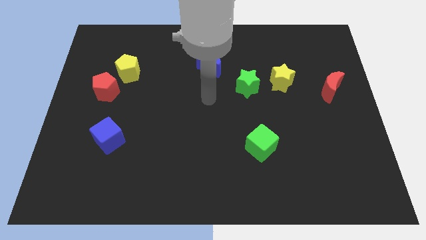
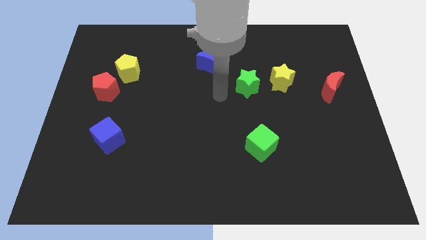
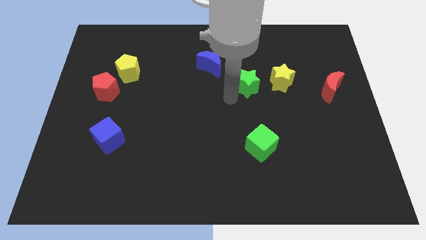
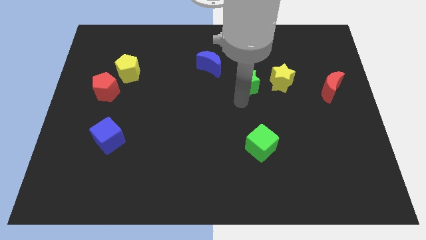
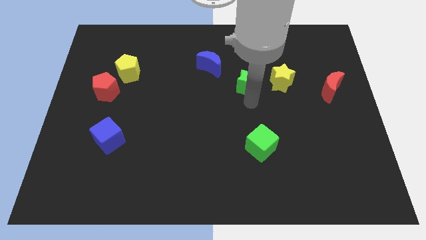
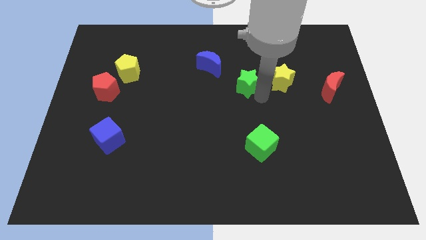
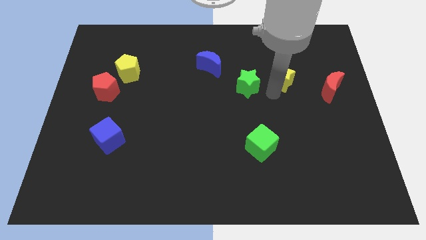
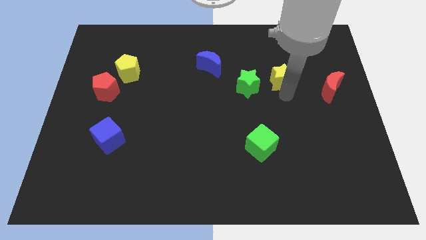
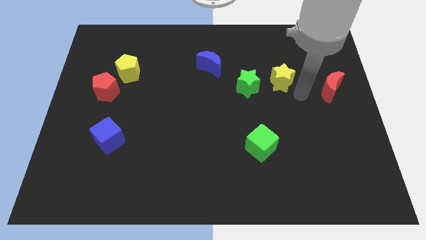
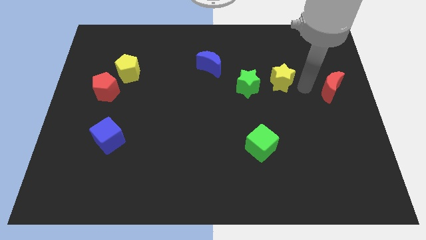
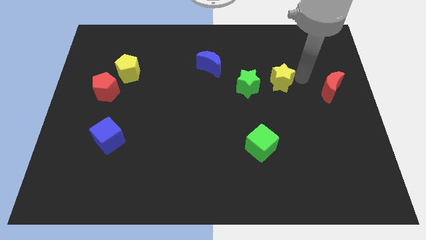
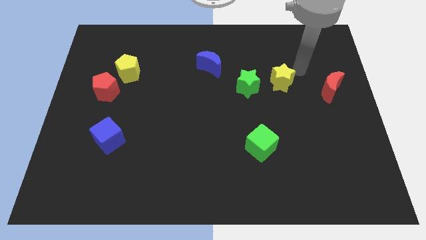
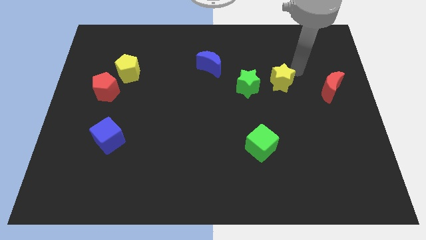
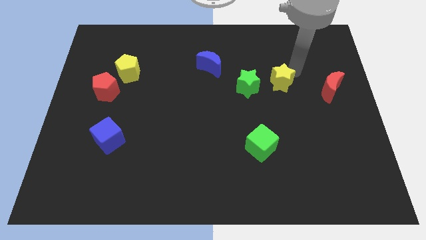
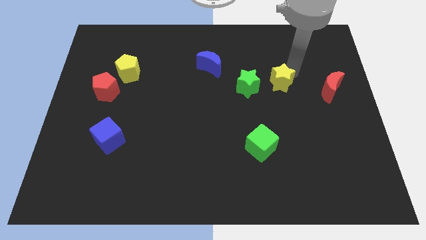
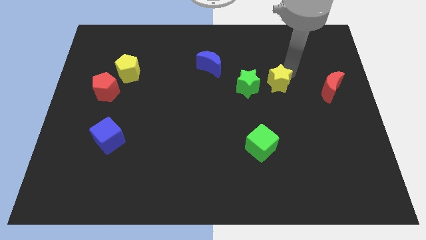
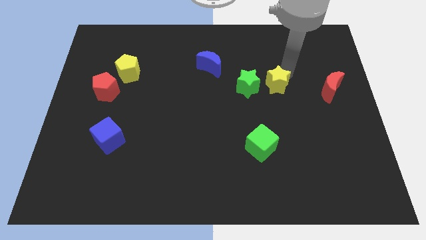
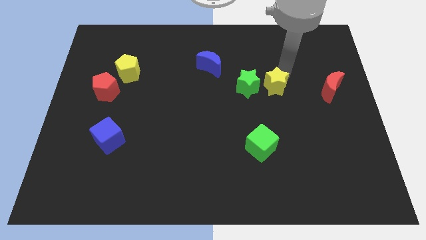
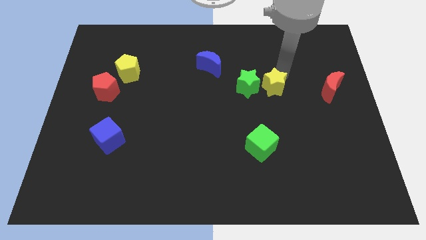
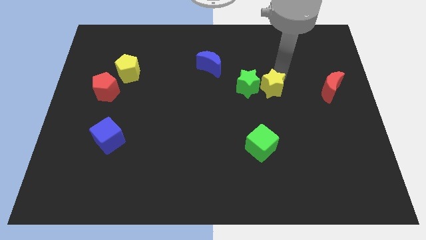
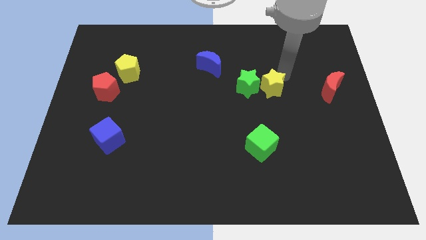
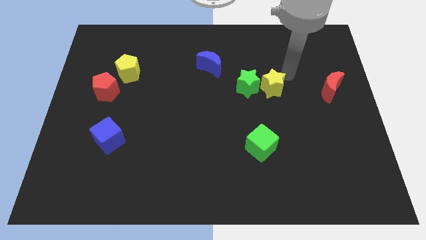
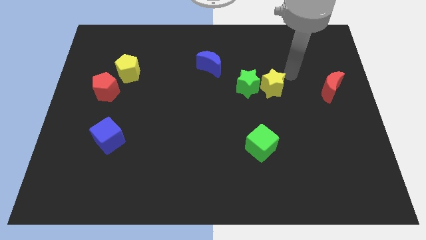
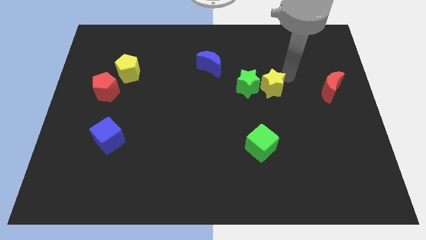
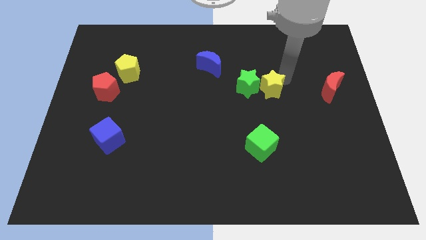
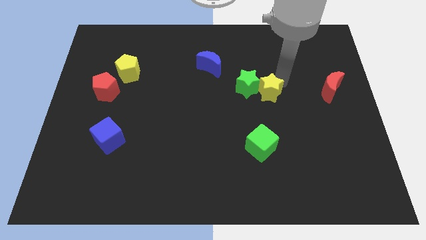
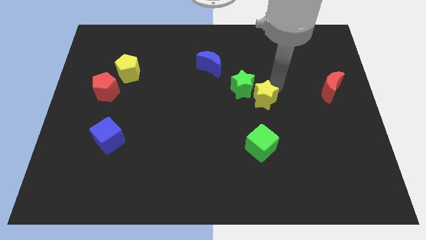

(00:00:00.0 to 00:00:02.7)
slide the yellow star a little bit diagonally down and left

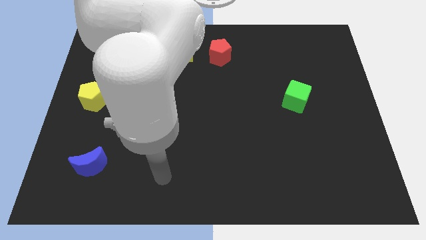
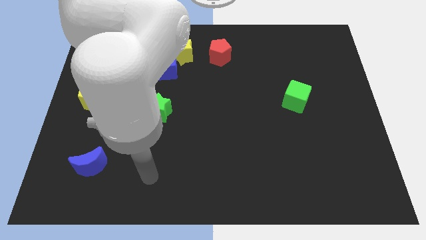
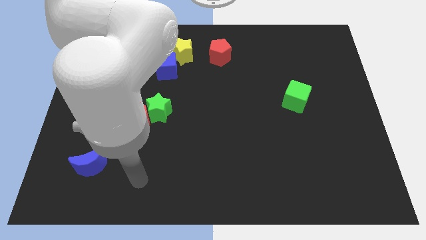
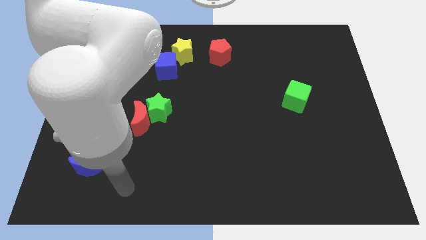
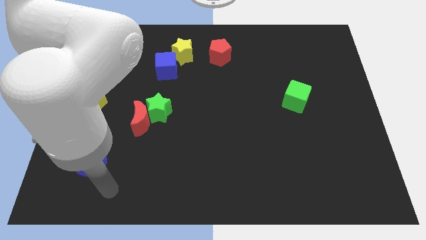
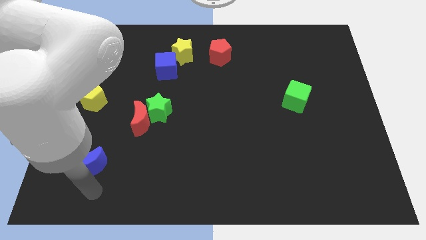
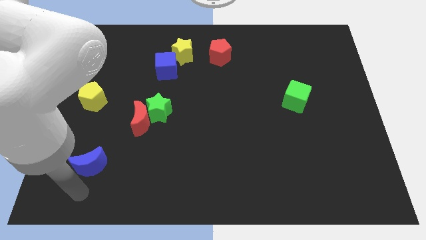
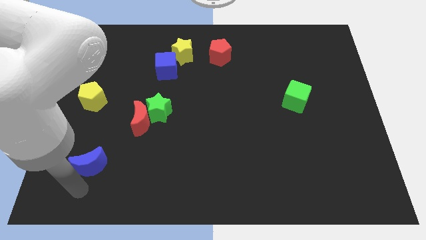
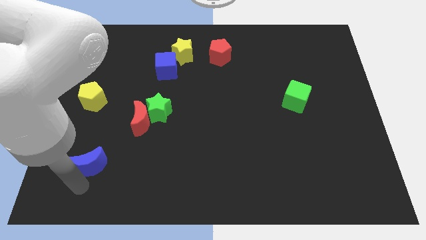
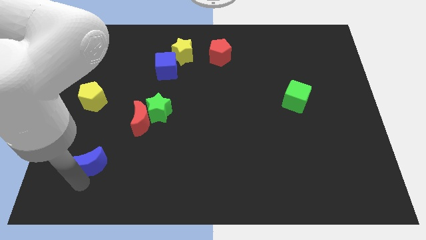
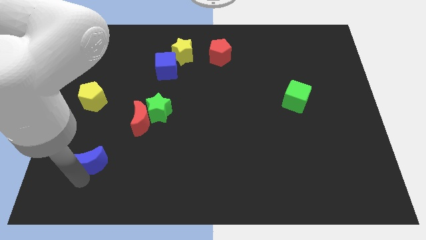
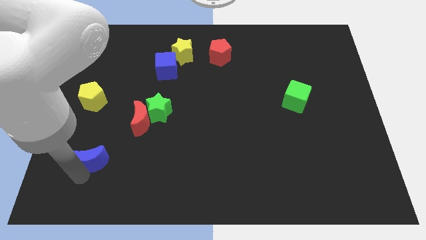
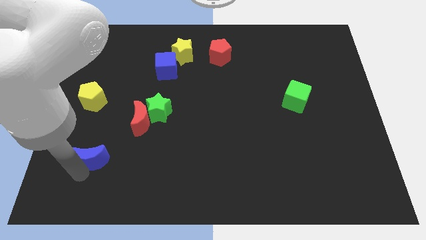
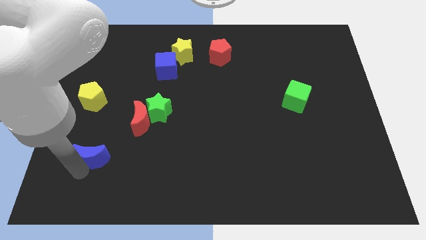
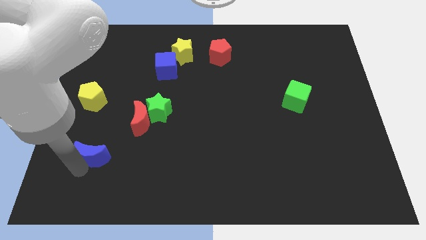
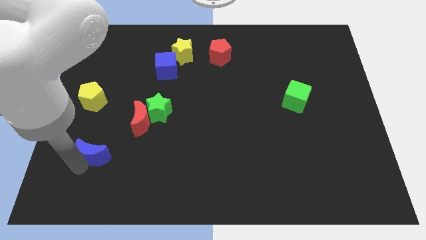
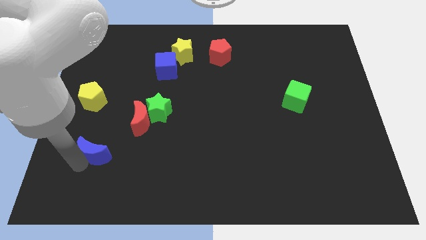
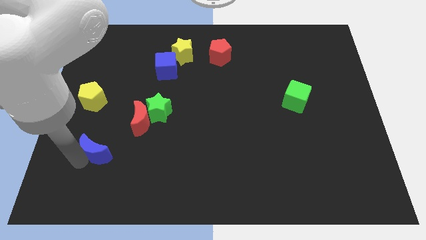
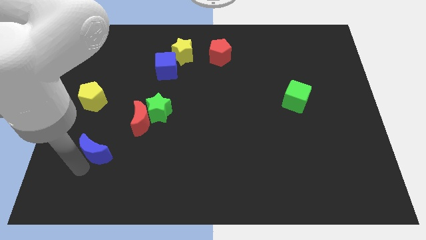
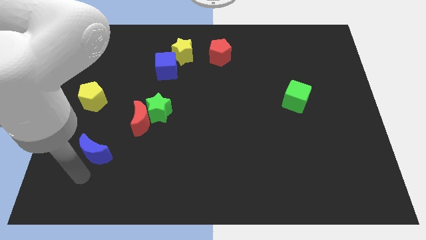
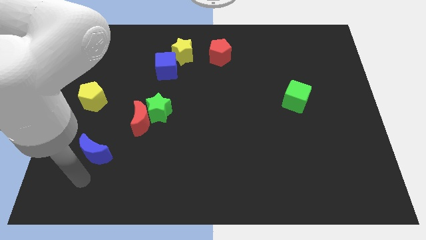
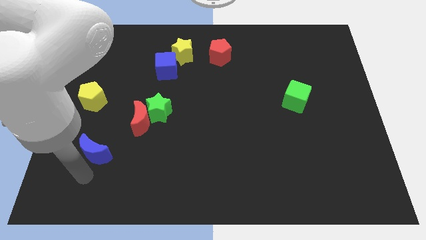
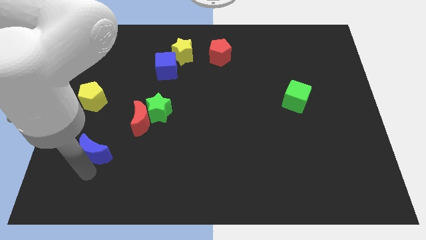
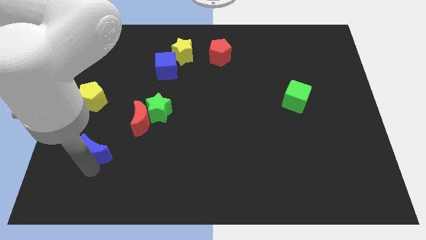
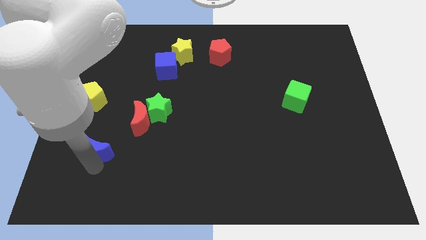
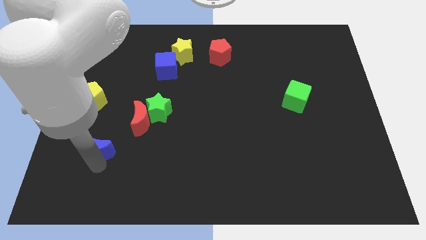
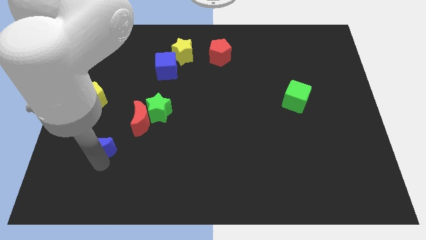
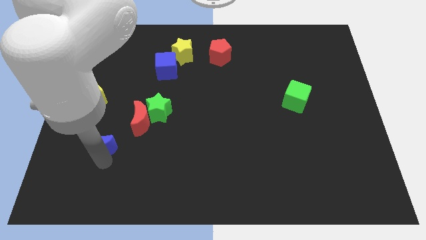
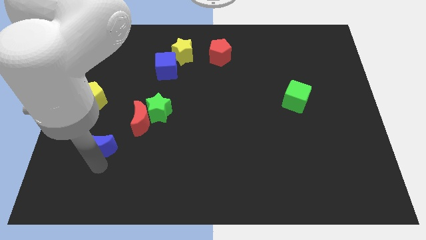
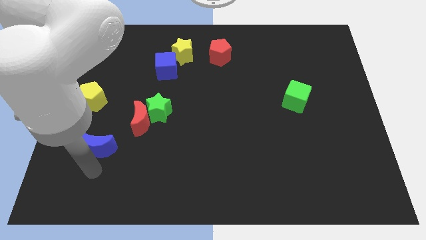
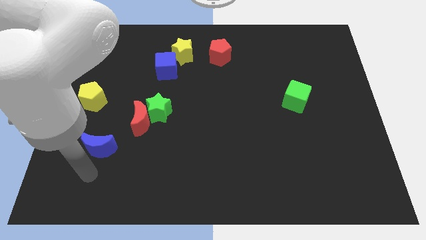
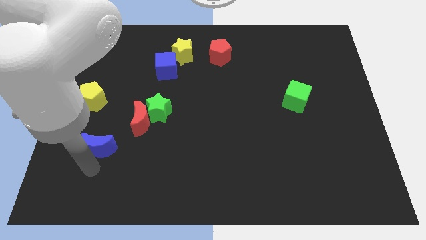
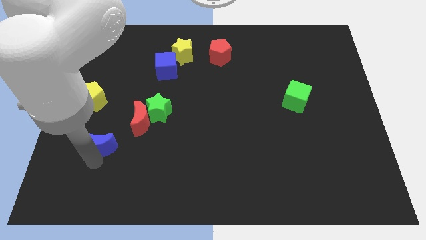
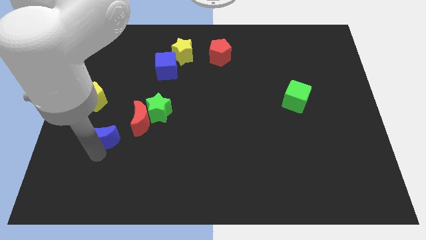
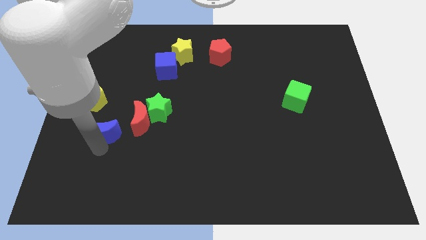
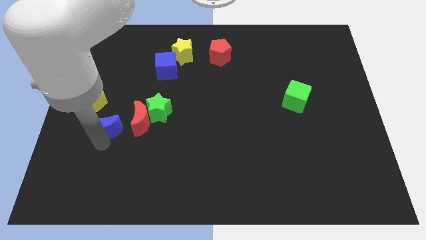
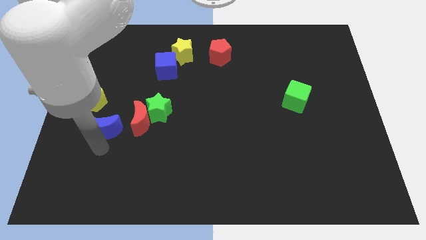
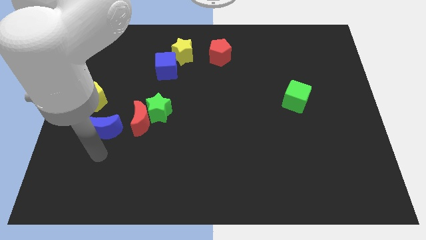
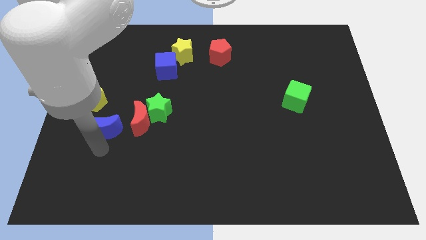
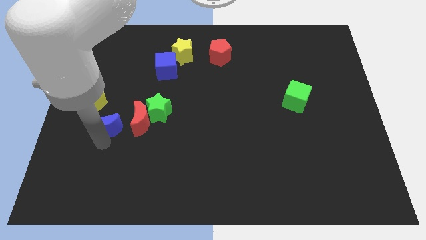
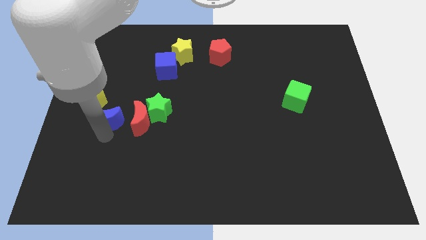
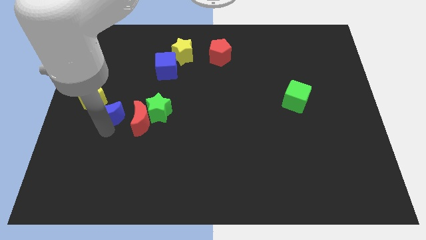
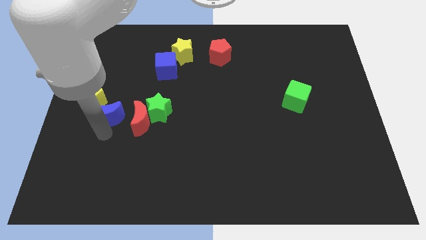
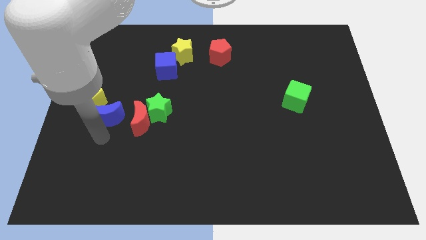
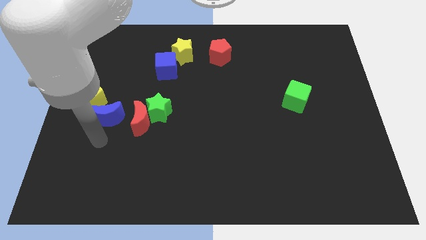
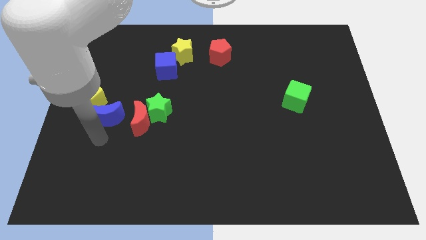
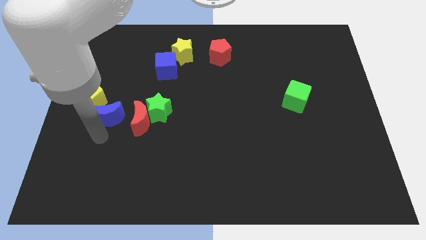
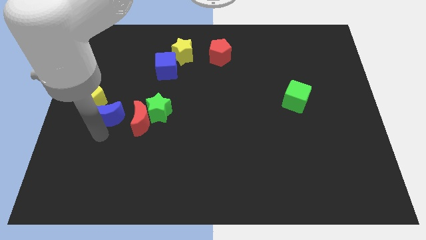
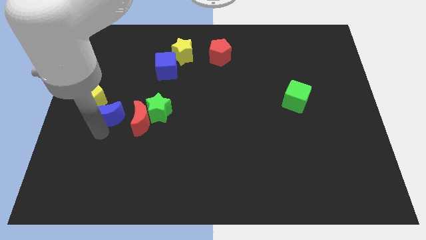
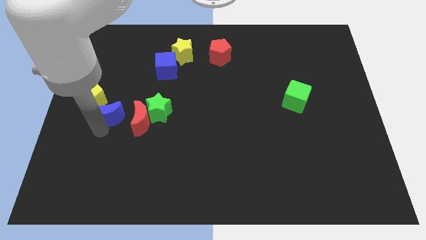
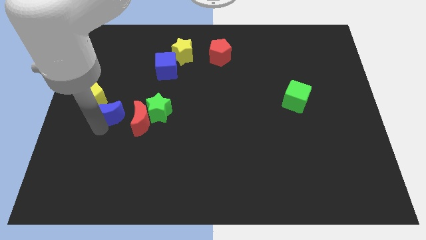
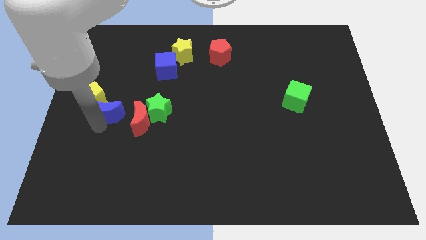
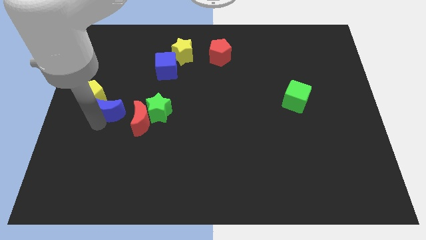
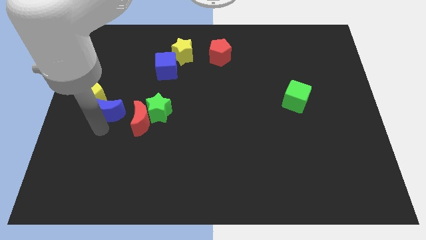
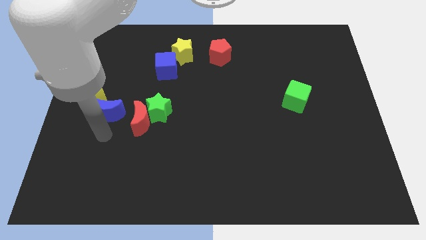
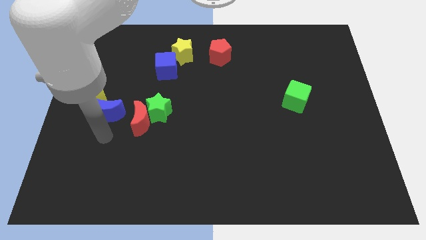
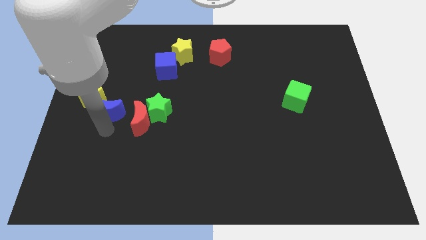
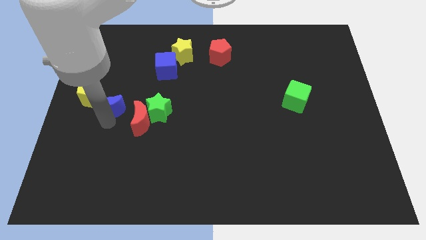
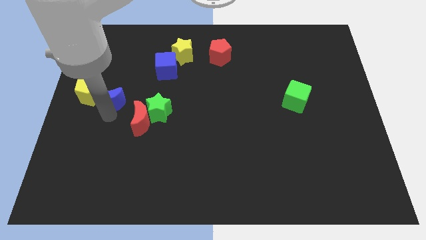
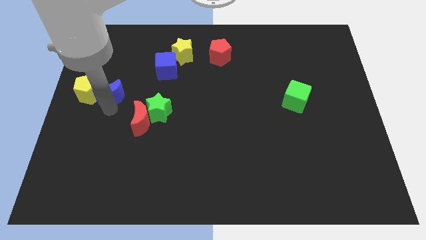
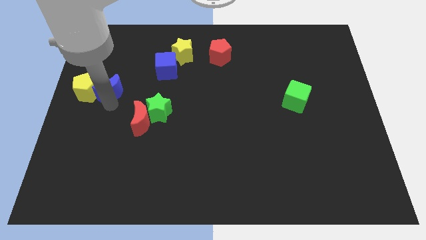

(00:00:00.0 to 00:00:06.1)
move the blue moon up
